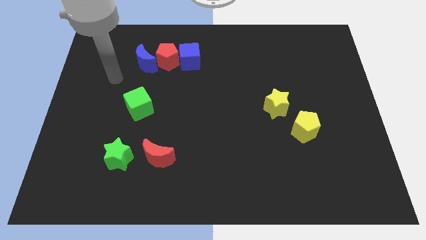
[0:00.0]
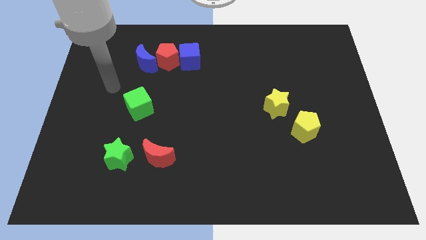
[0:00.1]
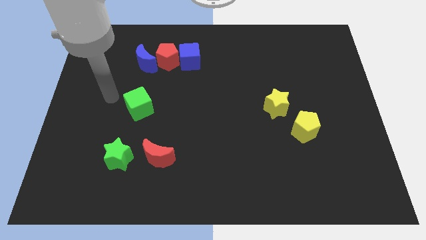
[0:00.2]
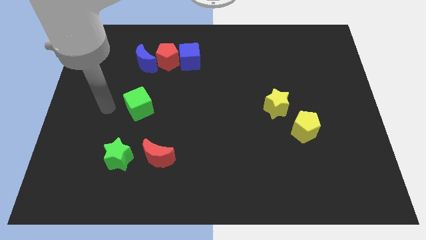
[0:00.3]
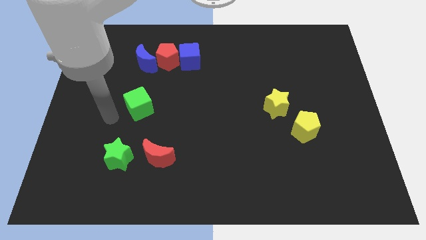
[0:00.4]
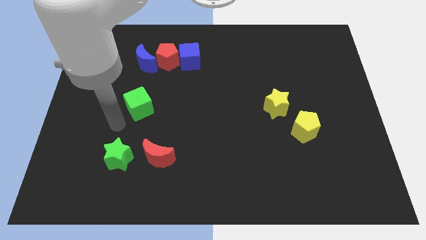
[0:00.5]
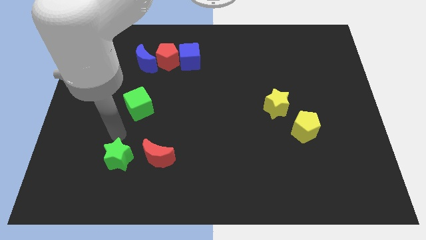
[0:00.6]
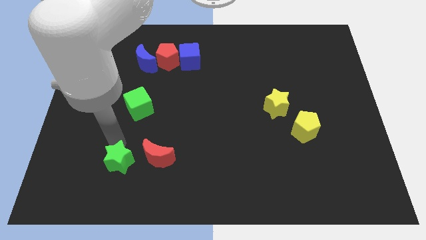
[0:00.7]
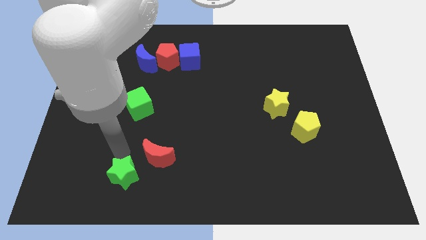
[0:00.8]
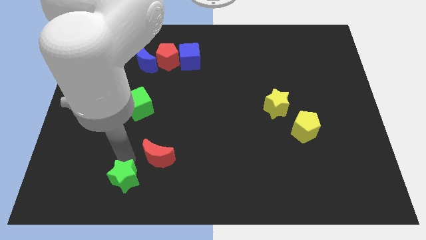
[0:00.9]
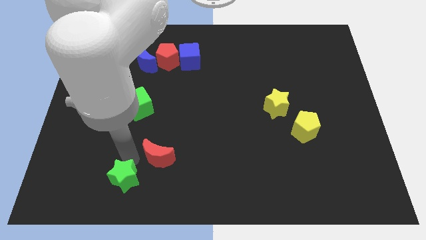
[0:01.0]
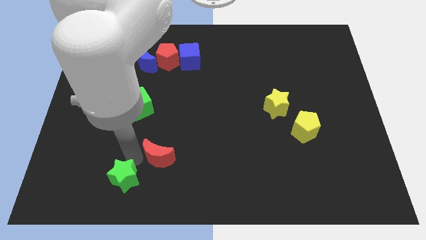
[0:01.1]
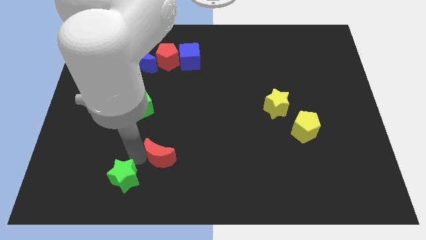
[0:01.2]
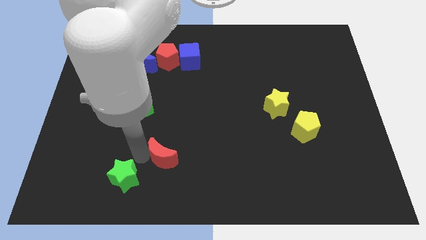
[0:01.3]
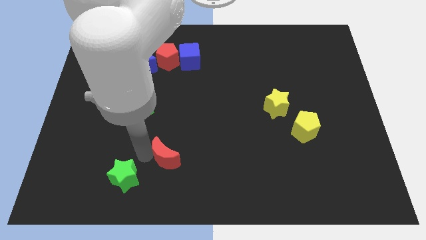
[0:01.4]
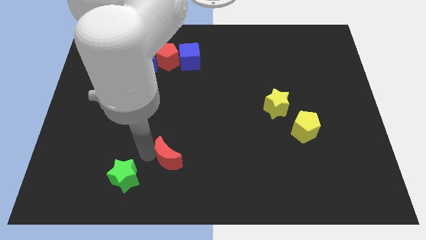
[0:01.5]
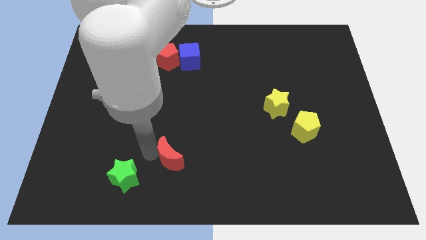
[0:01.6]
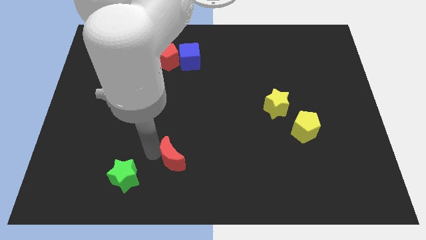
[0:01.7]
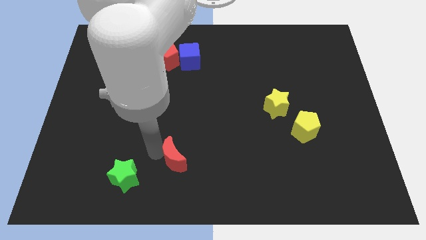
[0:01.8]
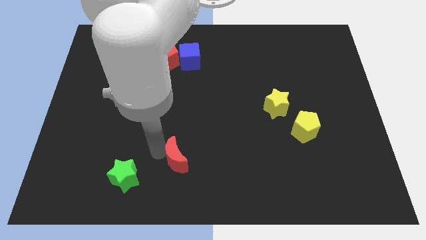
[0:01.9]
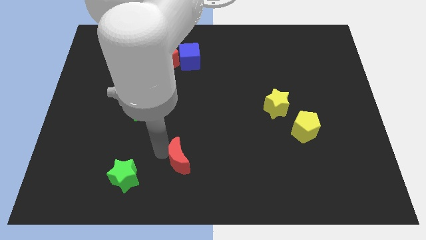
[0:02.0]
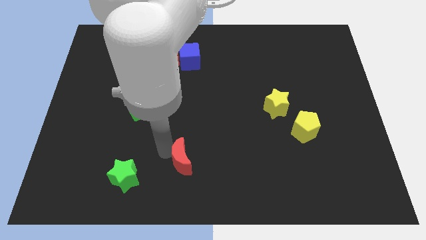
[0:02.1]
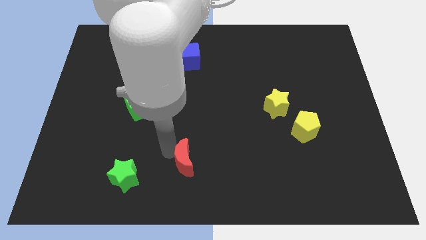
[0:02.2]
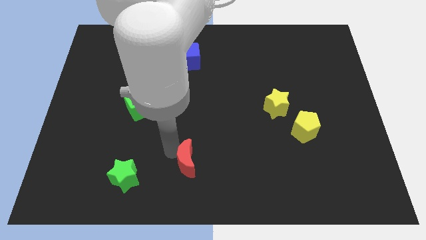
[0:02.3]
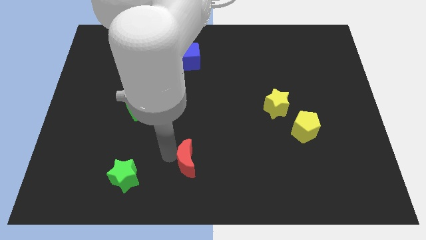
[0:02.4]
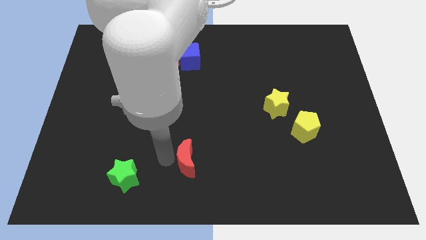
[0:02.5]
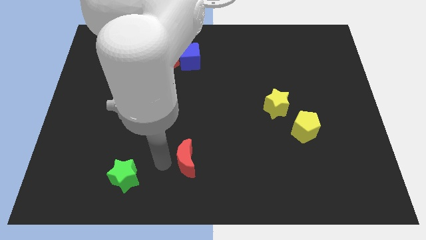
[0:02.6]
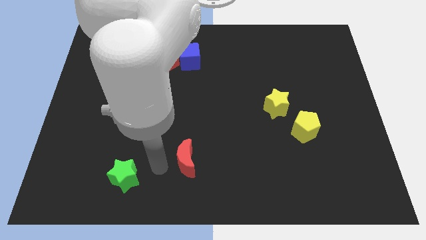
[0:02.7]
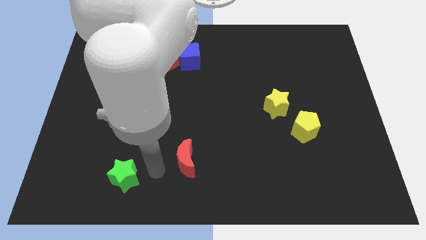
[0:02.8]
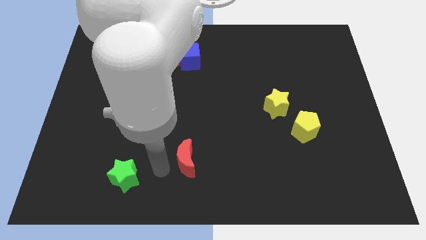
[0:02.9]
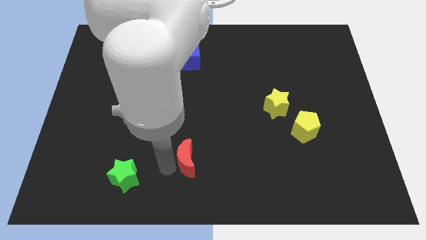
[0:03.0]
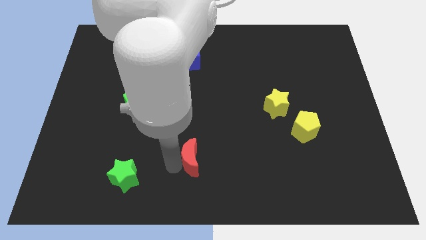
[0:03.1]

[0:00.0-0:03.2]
move the red moon right a little bit

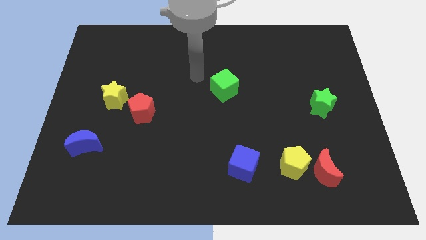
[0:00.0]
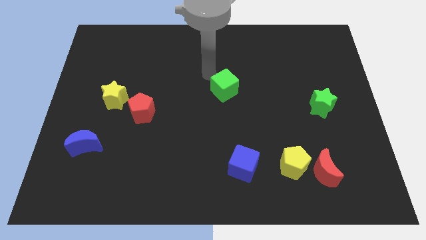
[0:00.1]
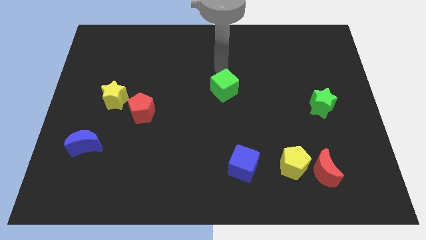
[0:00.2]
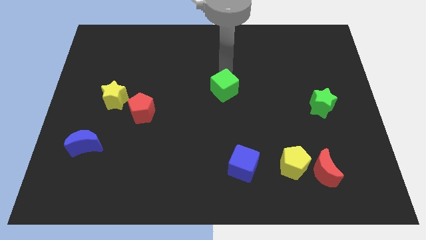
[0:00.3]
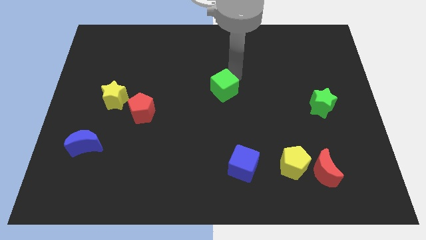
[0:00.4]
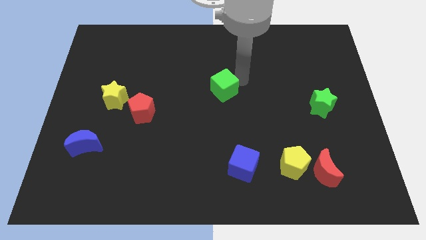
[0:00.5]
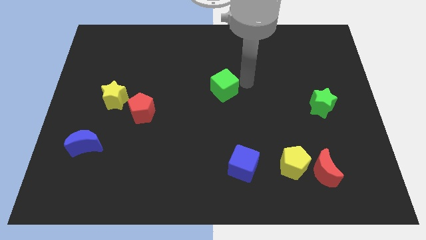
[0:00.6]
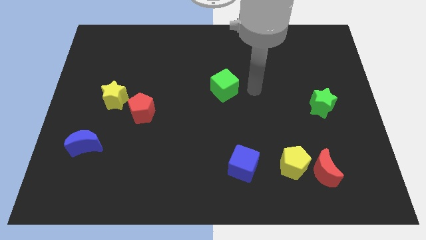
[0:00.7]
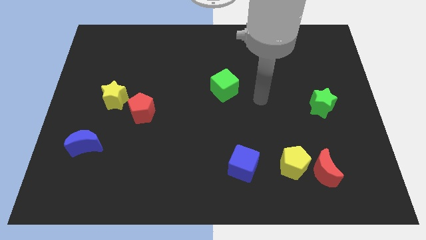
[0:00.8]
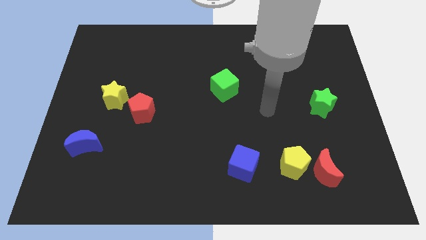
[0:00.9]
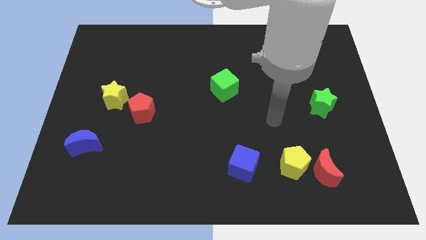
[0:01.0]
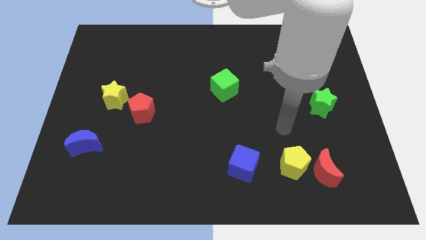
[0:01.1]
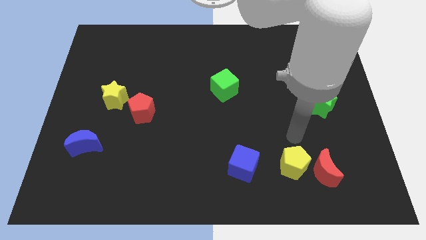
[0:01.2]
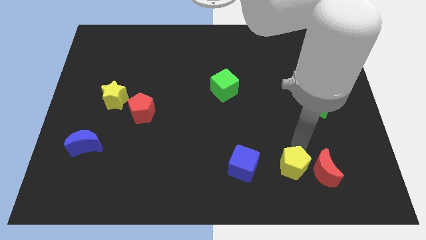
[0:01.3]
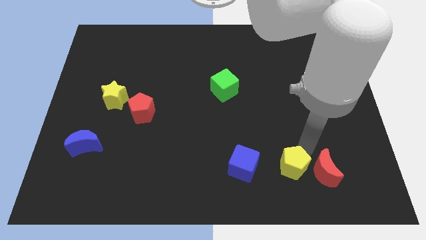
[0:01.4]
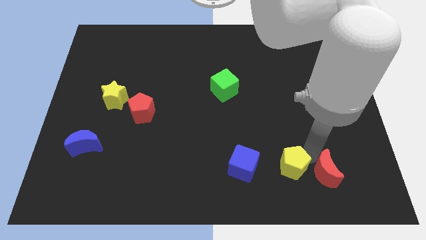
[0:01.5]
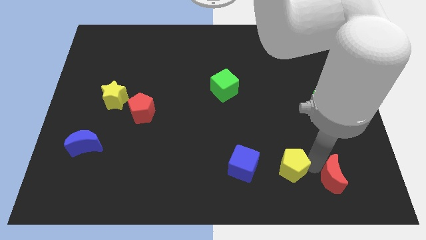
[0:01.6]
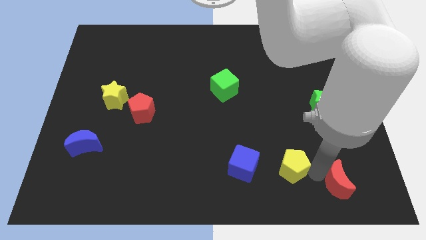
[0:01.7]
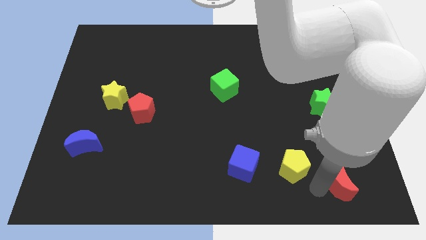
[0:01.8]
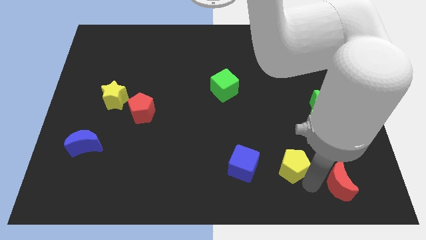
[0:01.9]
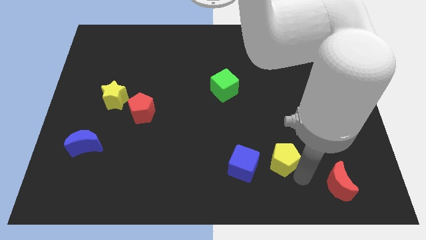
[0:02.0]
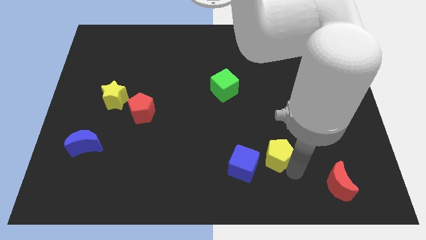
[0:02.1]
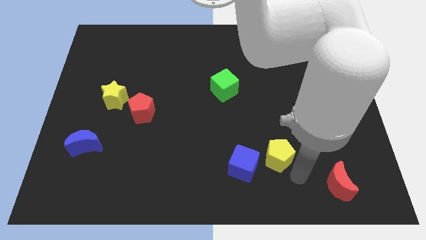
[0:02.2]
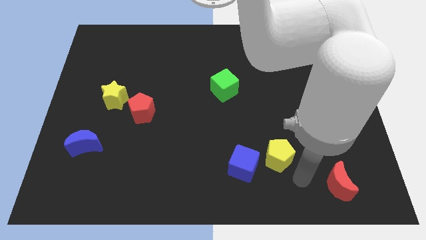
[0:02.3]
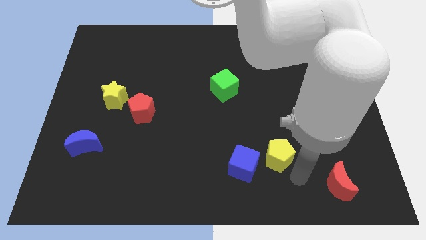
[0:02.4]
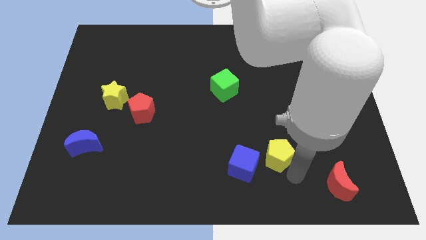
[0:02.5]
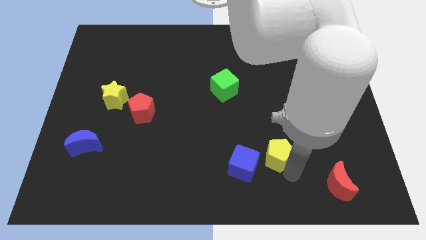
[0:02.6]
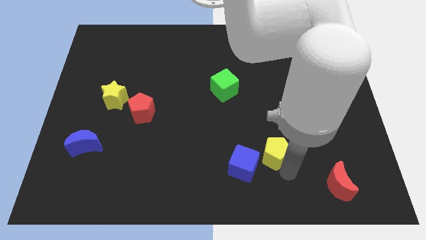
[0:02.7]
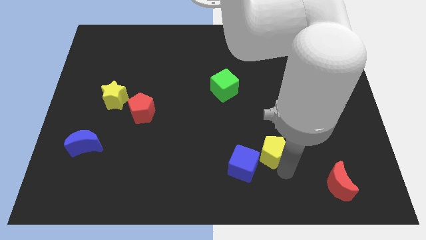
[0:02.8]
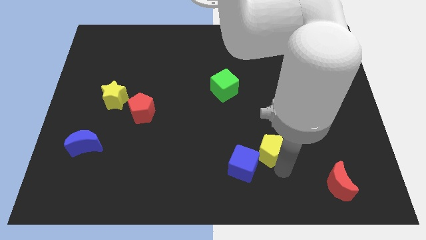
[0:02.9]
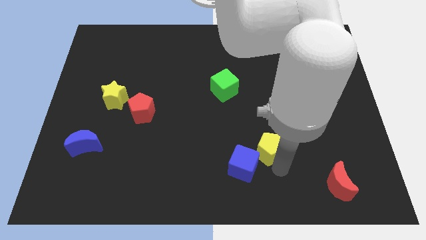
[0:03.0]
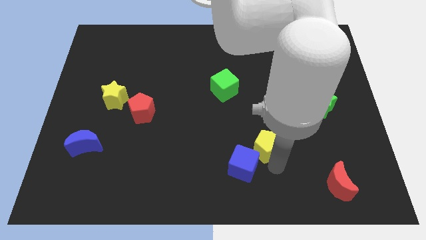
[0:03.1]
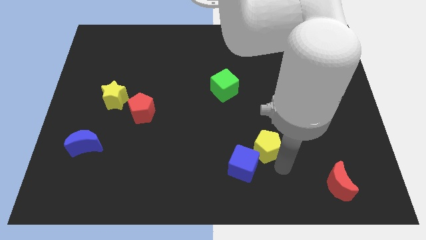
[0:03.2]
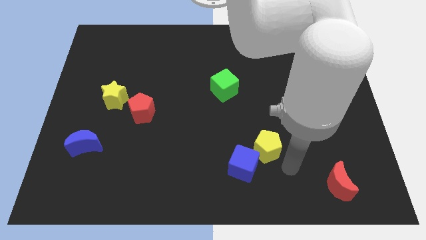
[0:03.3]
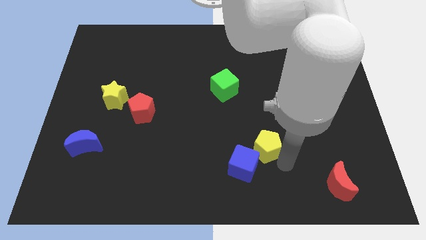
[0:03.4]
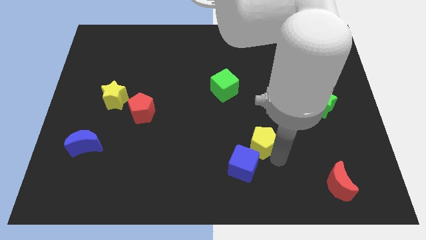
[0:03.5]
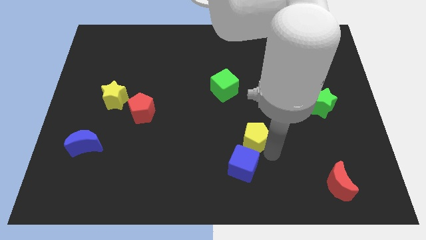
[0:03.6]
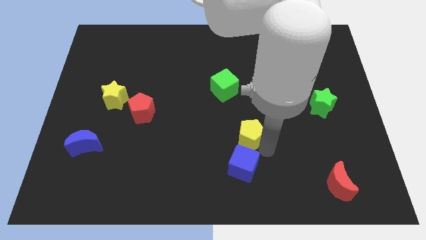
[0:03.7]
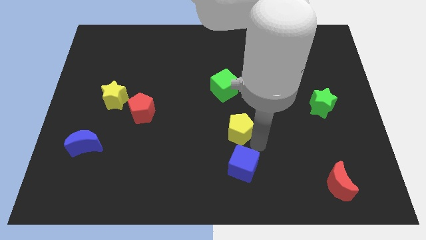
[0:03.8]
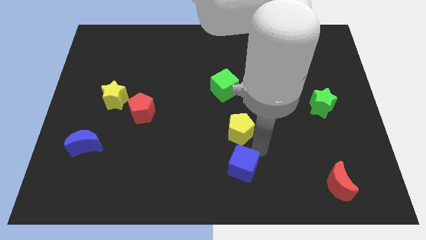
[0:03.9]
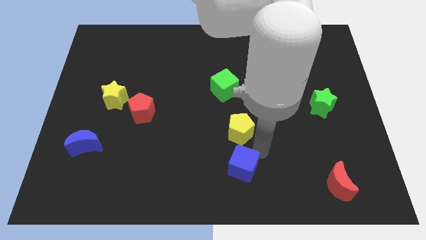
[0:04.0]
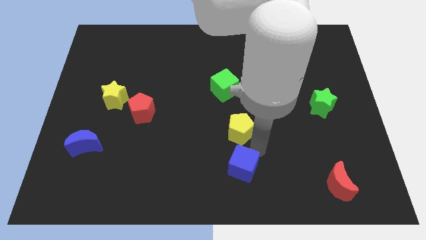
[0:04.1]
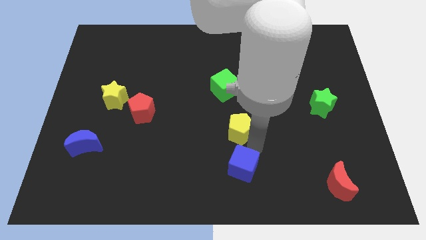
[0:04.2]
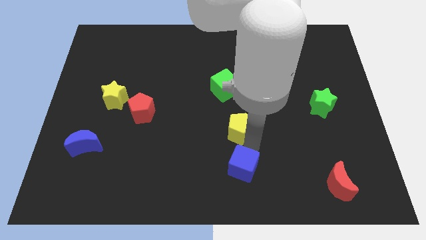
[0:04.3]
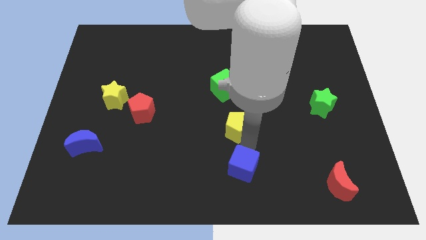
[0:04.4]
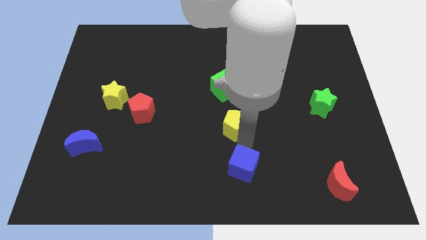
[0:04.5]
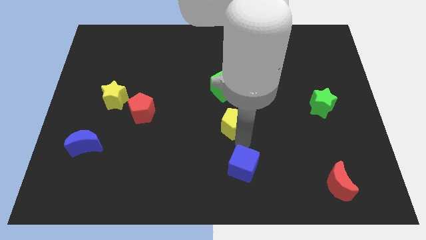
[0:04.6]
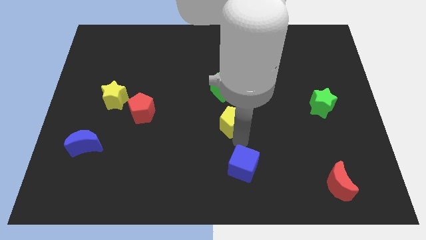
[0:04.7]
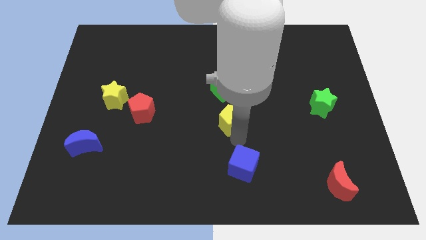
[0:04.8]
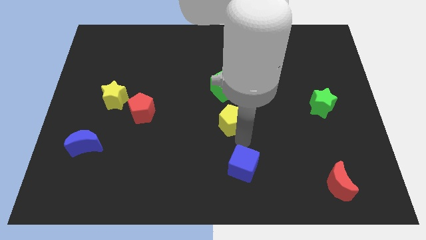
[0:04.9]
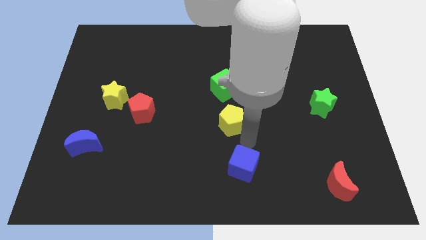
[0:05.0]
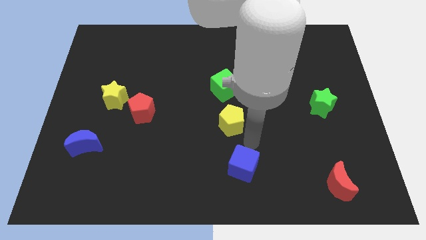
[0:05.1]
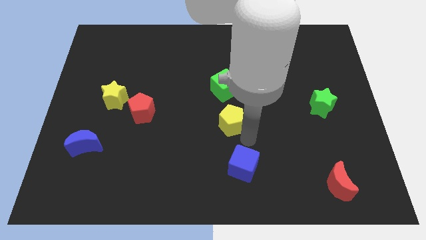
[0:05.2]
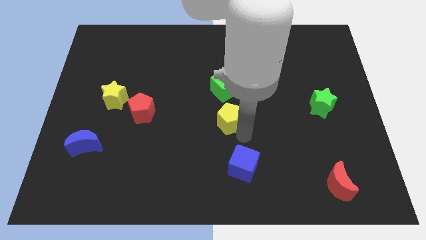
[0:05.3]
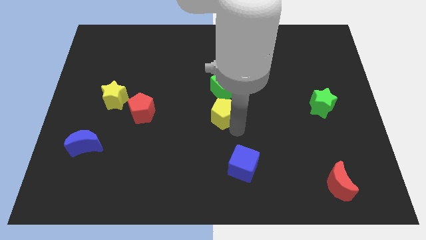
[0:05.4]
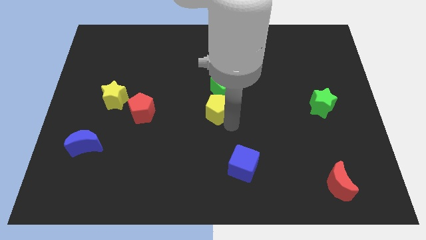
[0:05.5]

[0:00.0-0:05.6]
move the yellow pentagon upwards and then to the left
